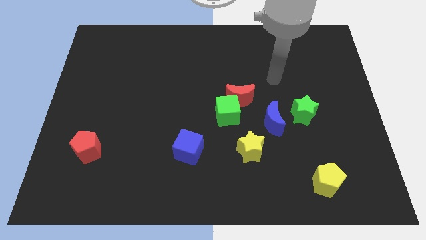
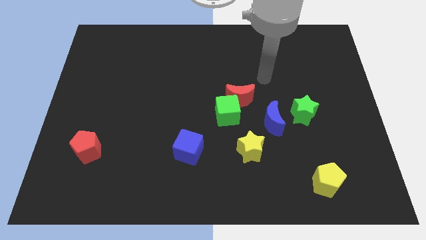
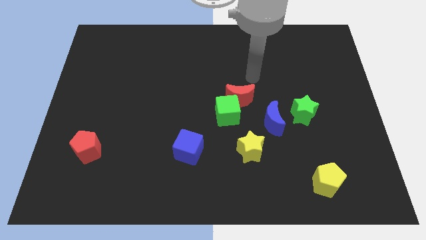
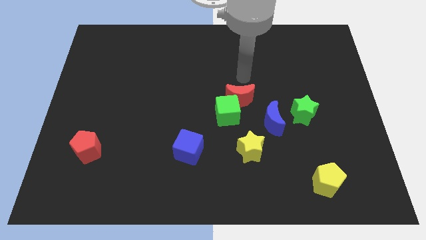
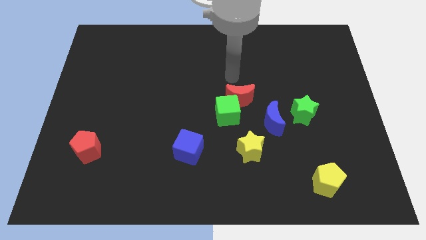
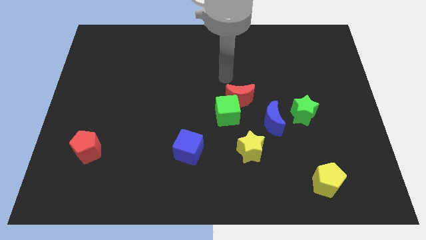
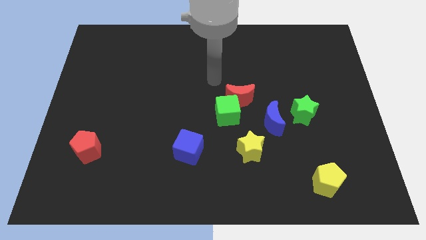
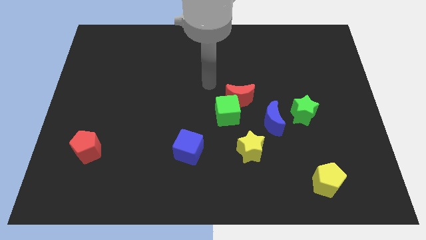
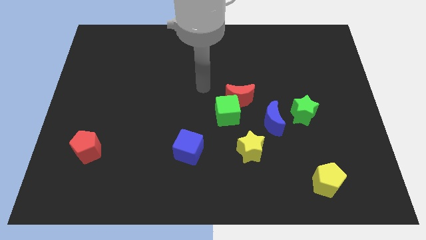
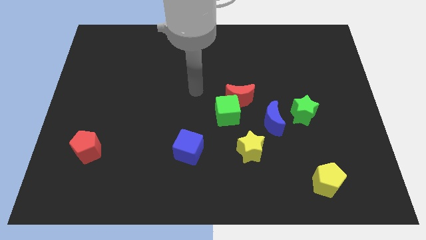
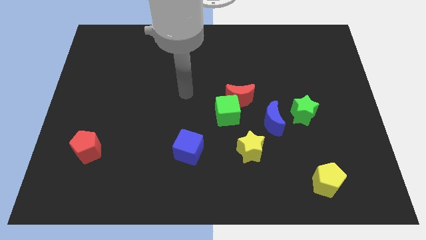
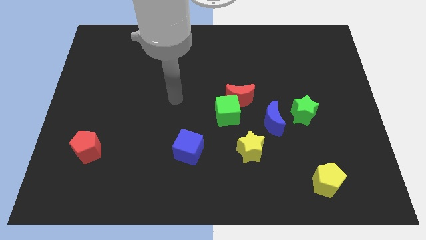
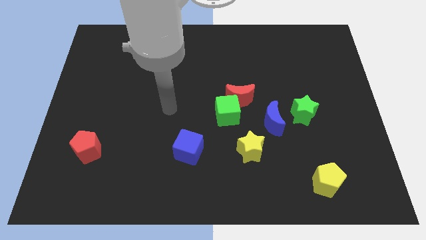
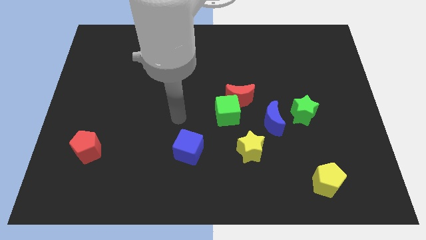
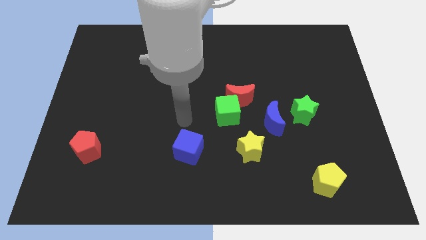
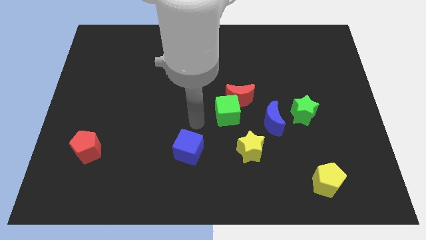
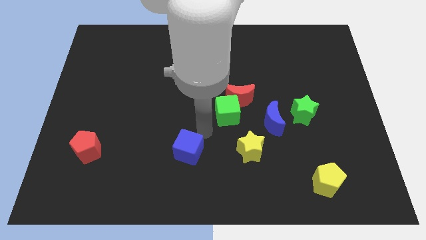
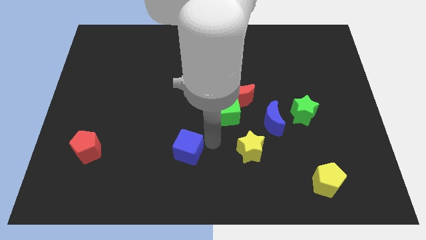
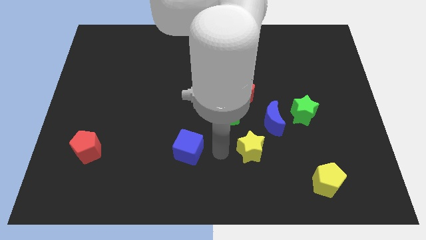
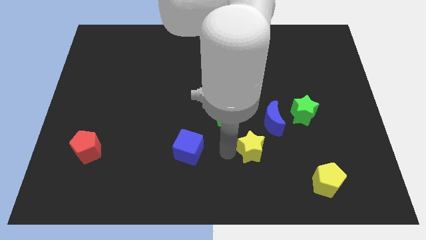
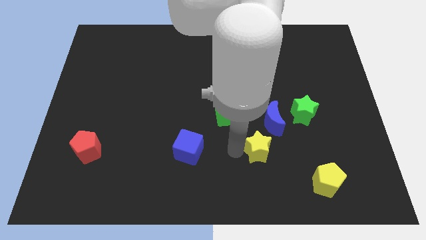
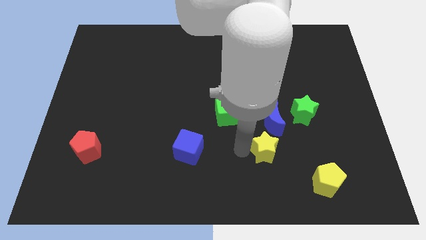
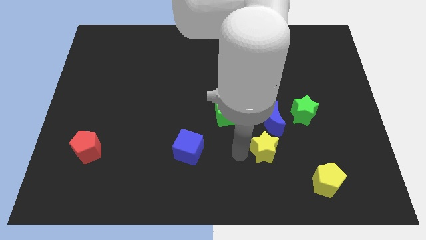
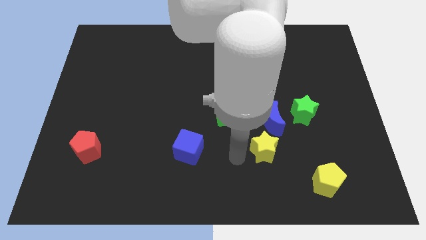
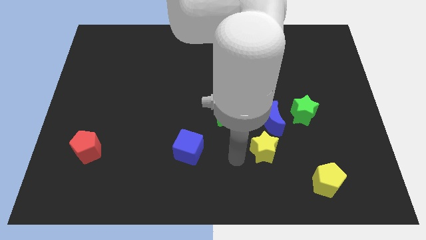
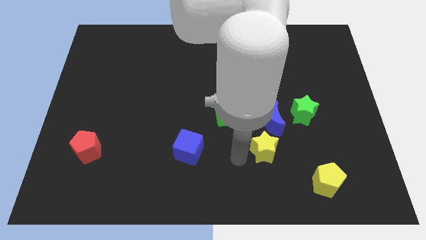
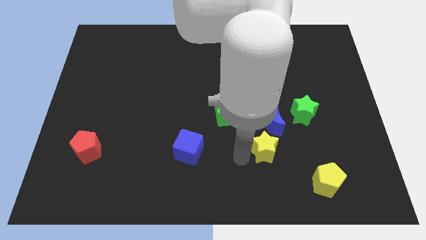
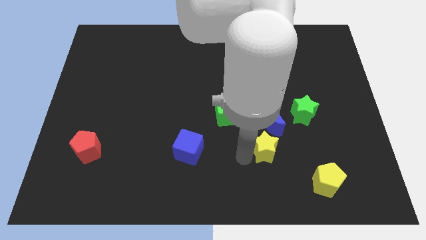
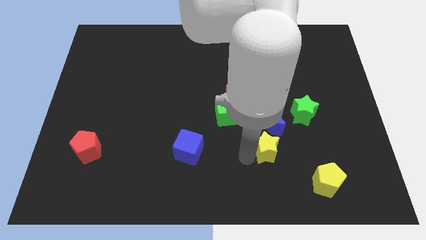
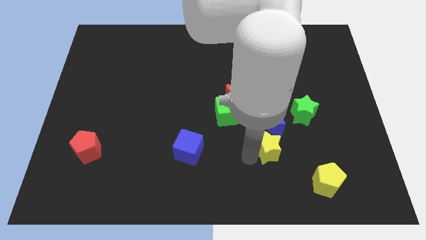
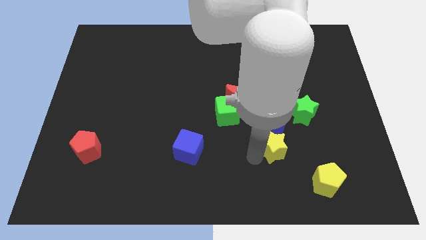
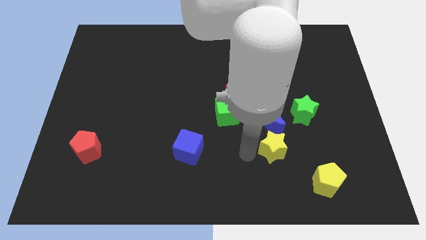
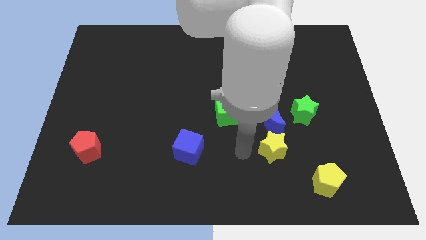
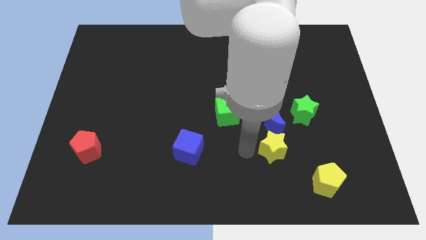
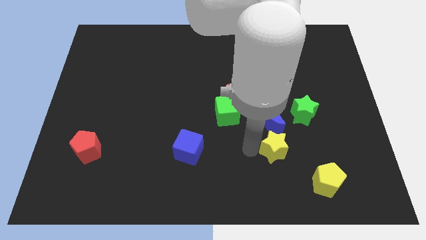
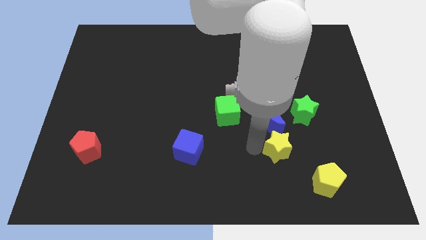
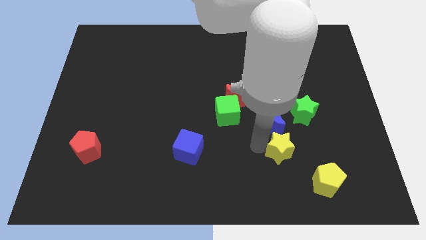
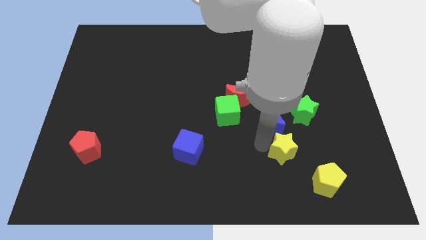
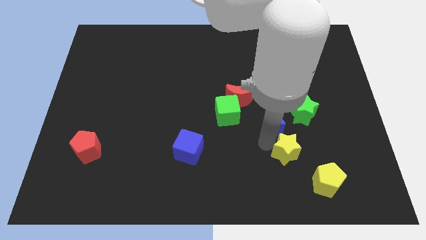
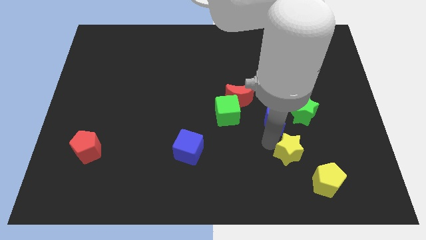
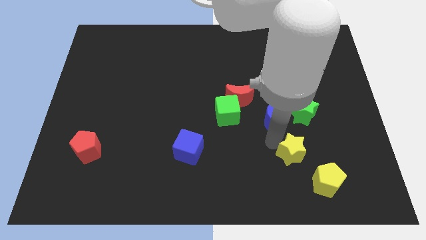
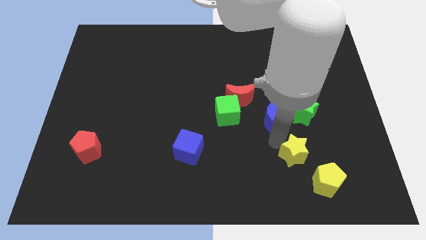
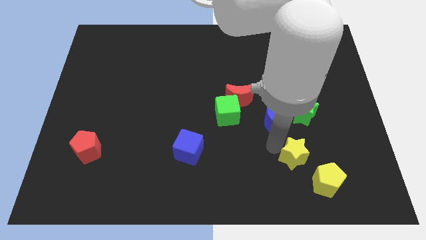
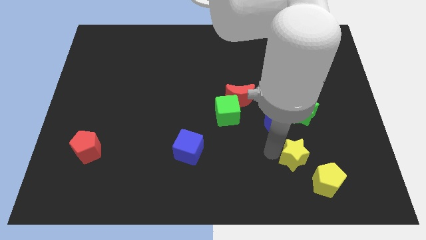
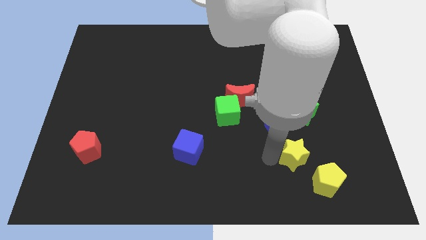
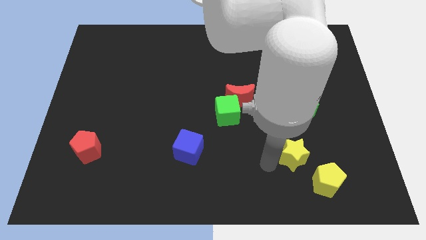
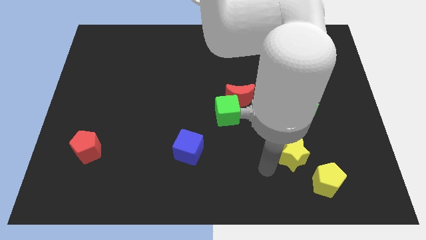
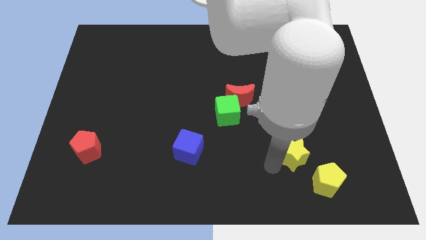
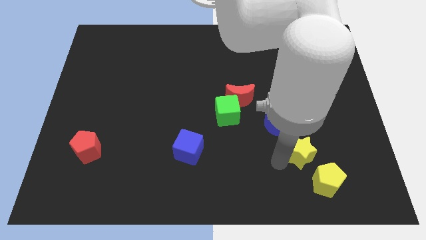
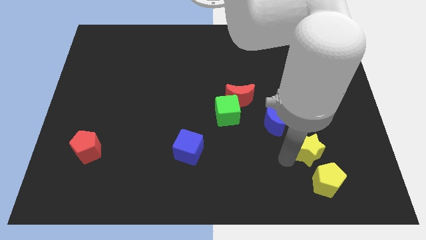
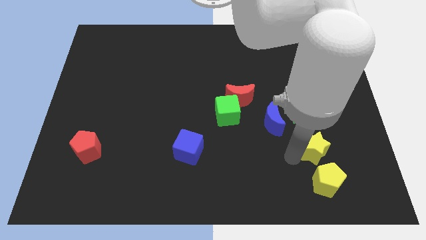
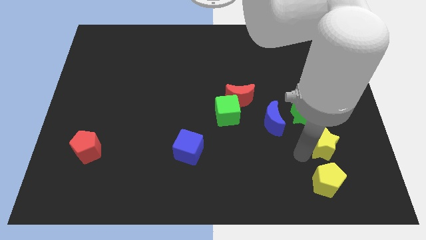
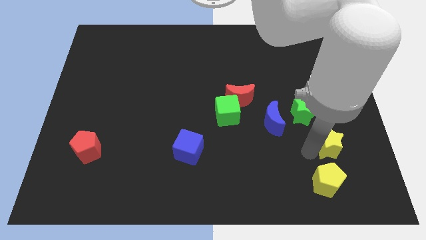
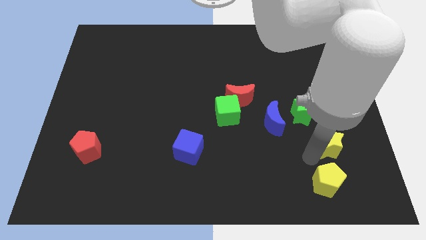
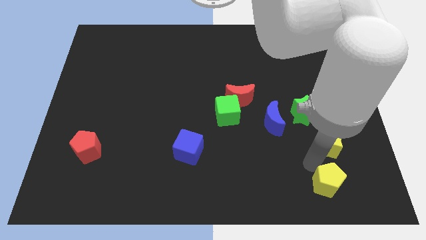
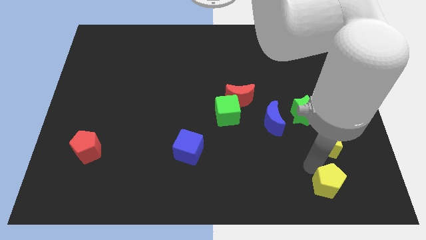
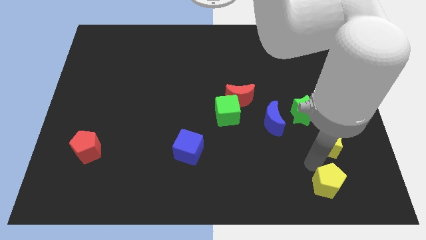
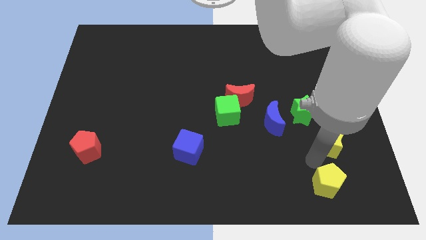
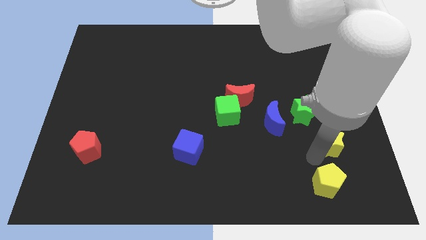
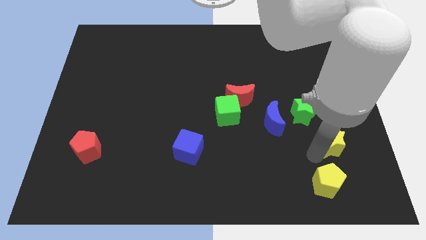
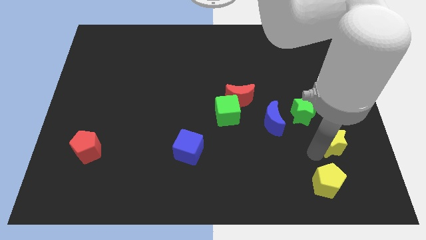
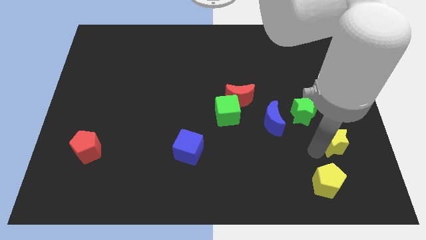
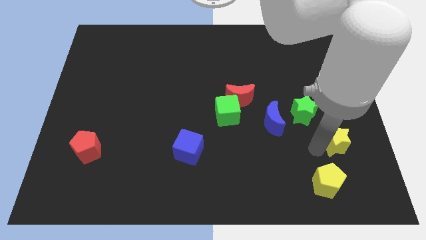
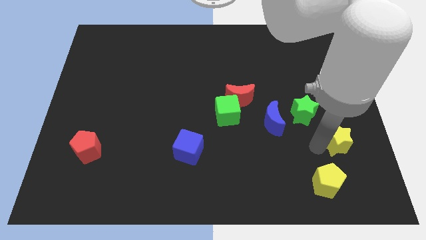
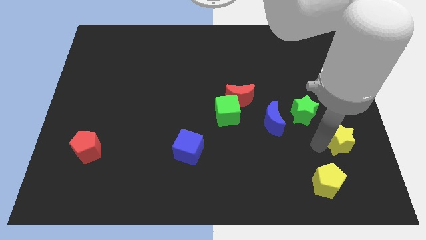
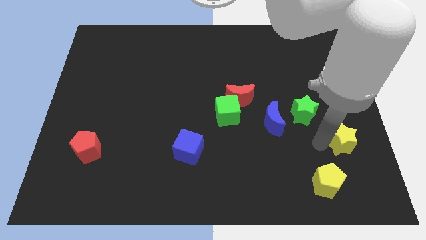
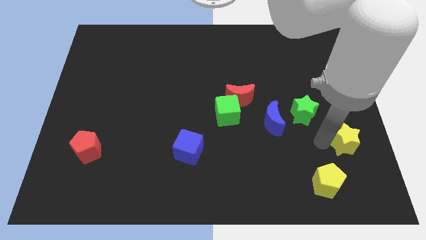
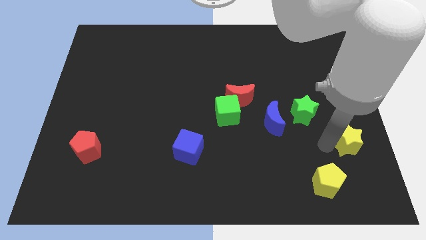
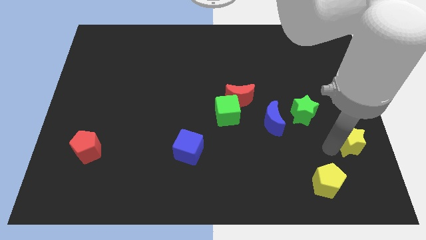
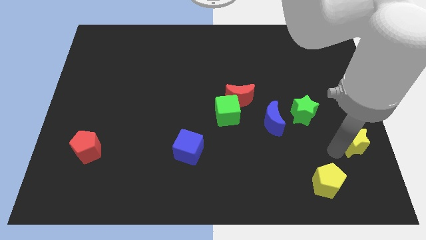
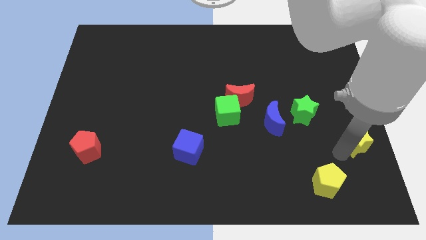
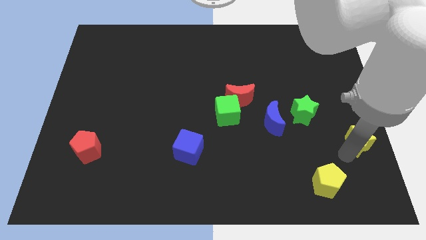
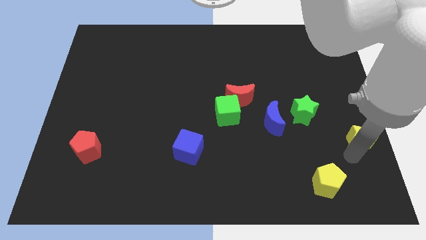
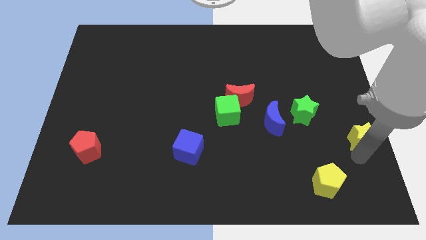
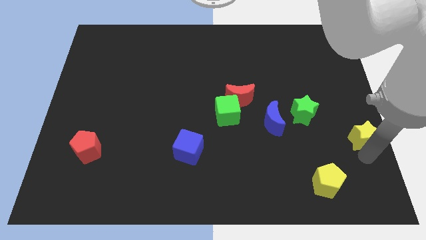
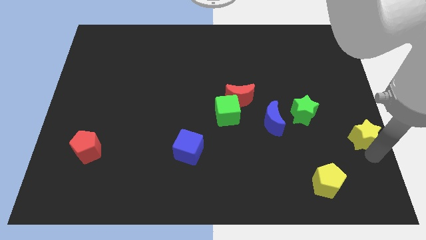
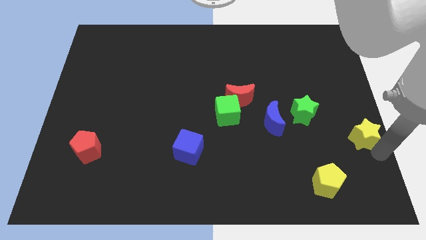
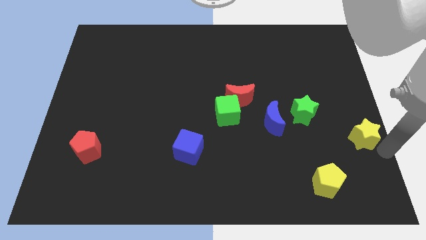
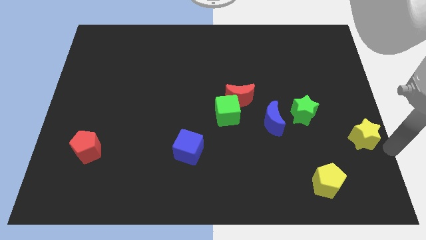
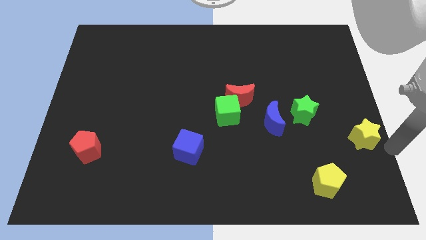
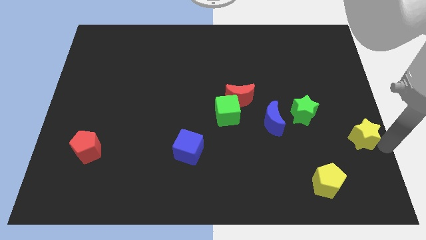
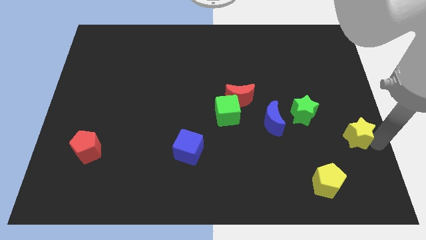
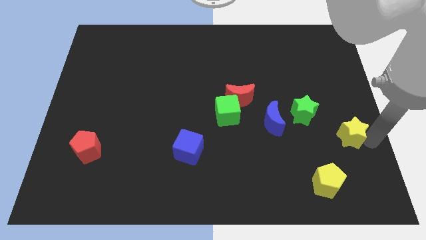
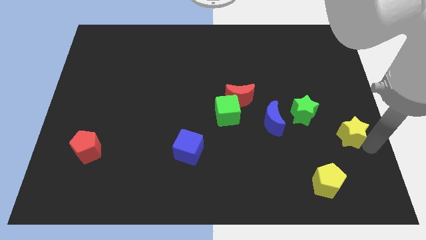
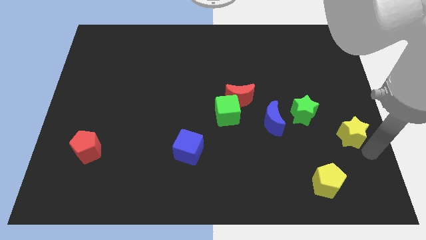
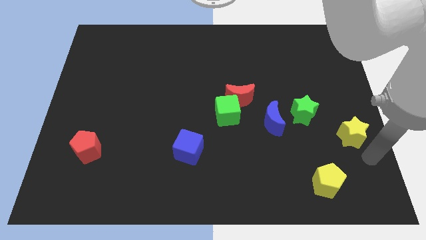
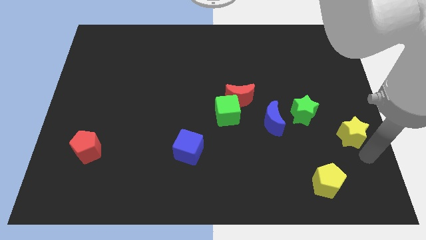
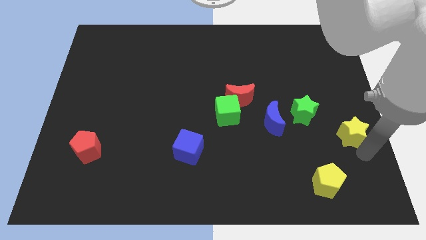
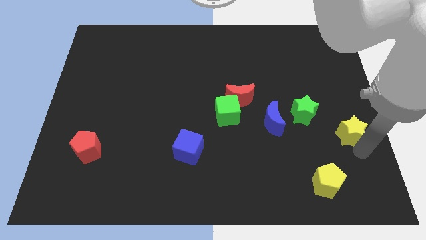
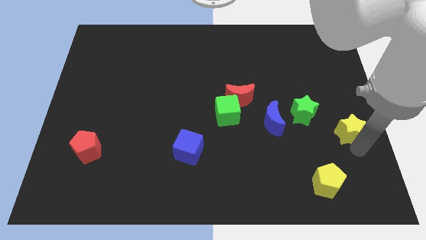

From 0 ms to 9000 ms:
slide the yellow star up and right a bit
